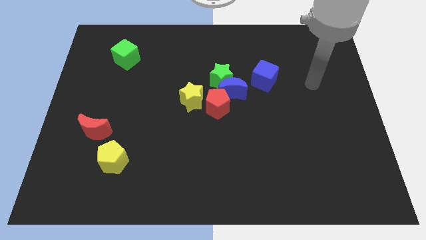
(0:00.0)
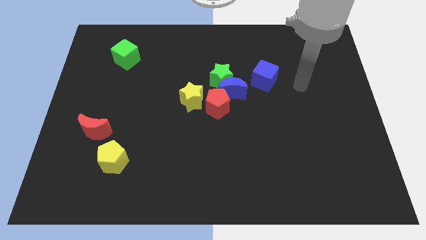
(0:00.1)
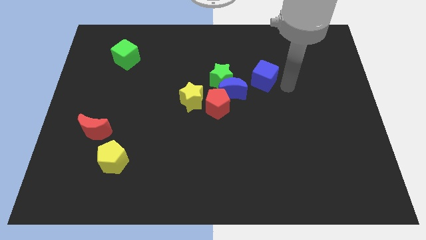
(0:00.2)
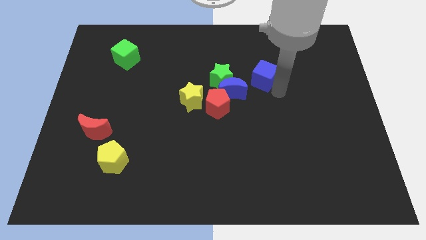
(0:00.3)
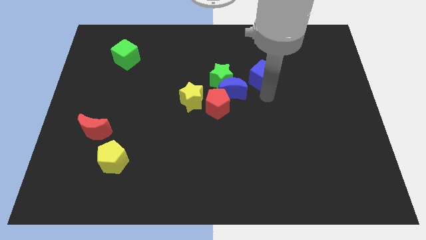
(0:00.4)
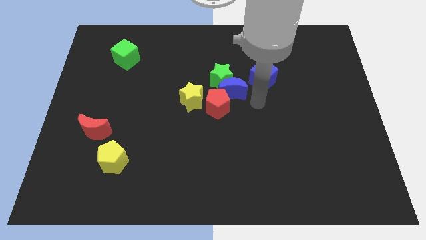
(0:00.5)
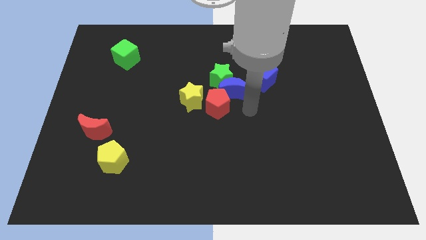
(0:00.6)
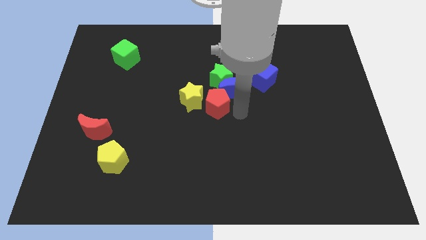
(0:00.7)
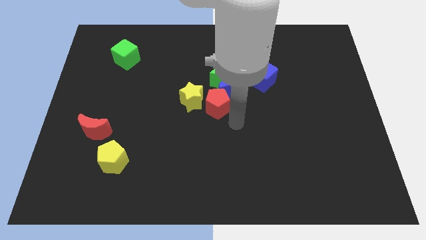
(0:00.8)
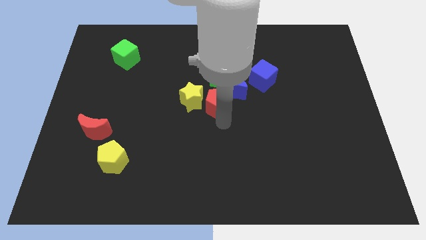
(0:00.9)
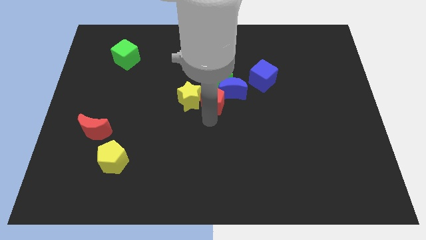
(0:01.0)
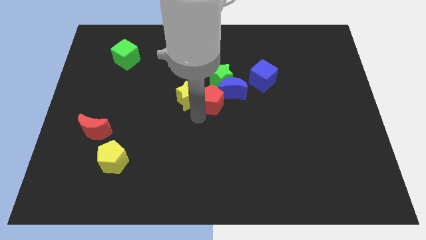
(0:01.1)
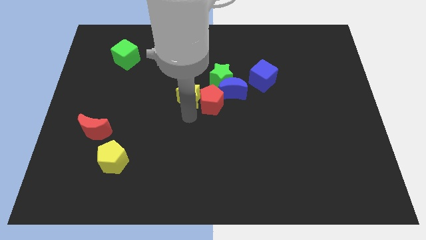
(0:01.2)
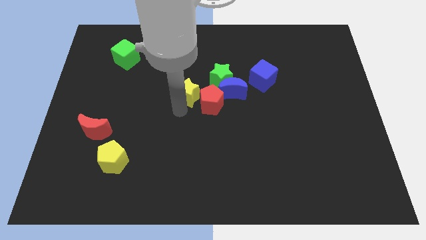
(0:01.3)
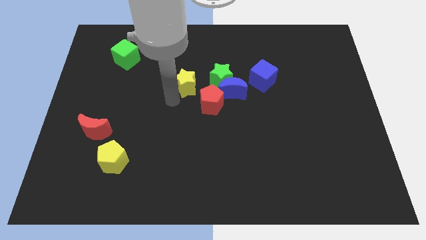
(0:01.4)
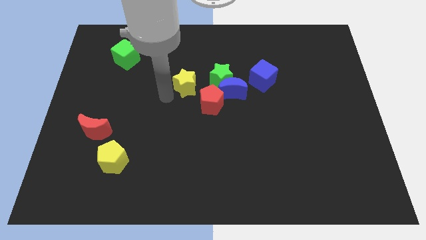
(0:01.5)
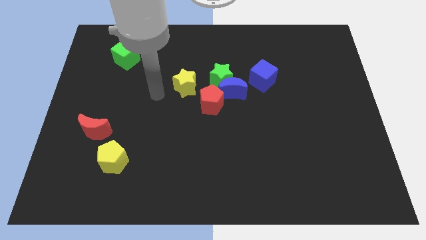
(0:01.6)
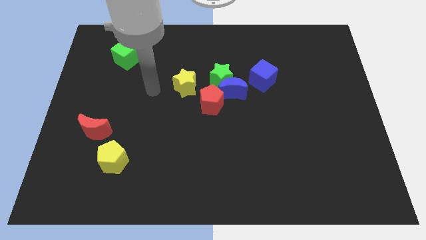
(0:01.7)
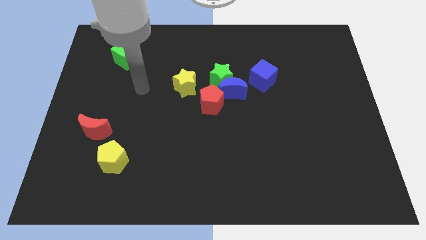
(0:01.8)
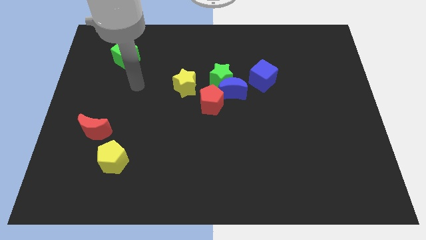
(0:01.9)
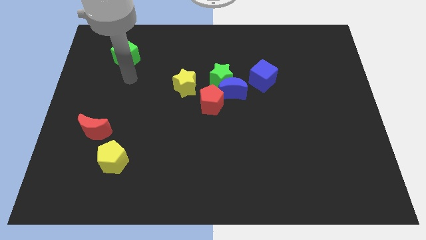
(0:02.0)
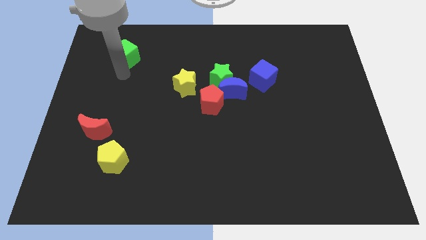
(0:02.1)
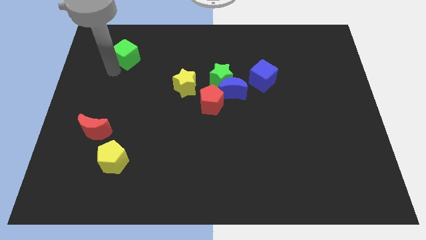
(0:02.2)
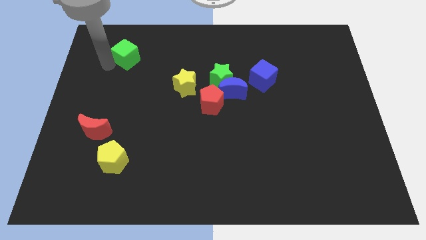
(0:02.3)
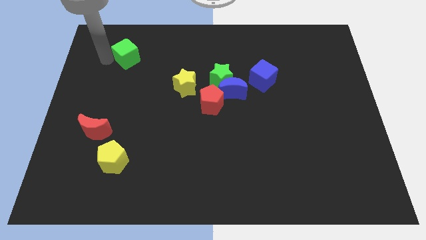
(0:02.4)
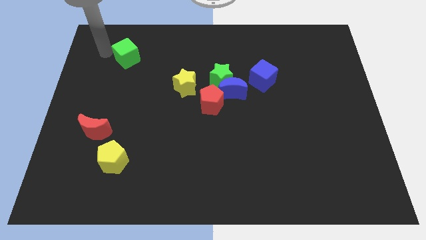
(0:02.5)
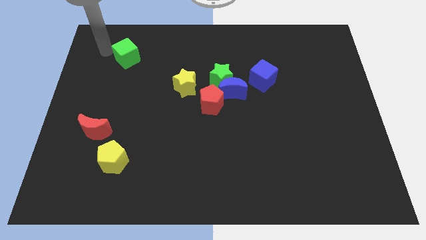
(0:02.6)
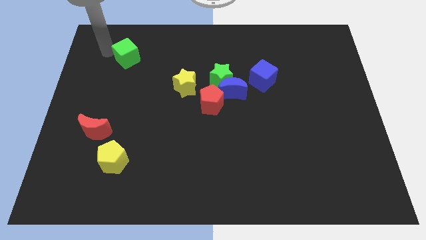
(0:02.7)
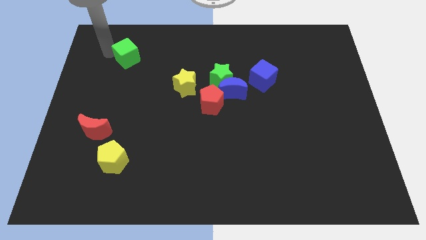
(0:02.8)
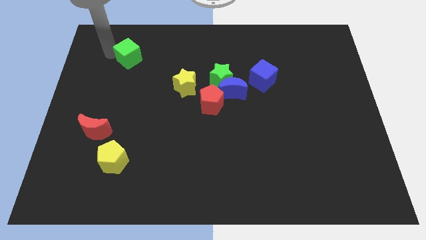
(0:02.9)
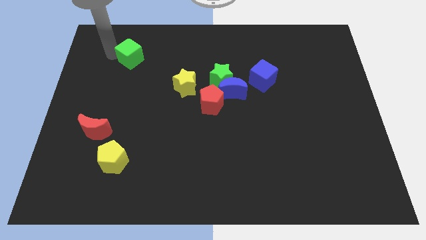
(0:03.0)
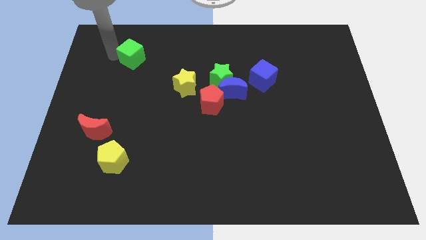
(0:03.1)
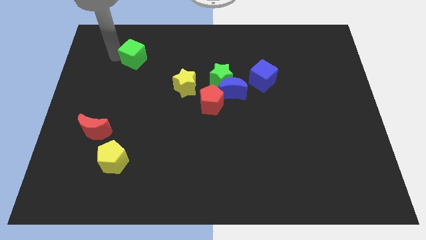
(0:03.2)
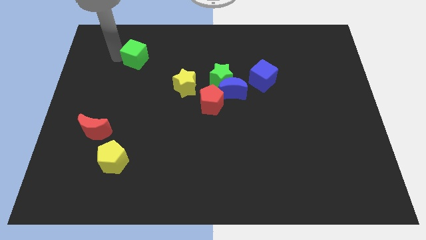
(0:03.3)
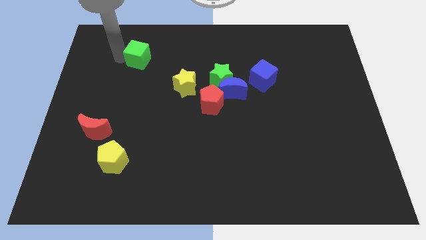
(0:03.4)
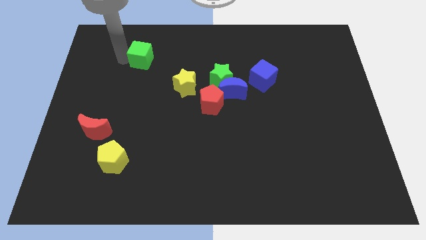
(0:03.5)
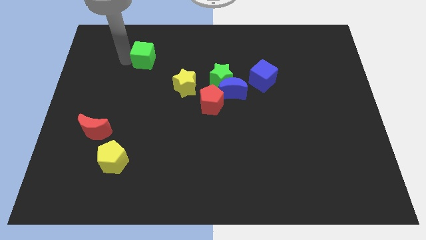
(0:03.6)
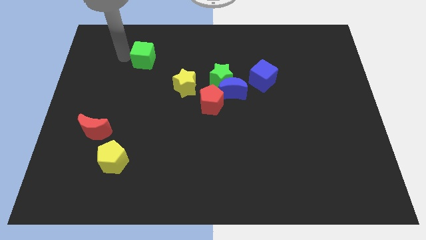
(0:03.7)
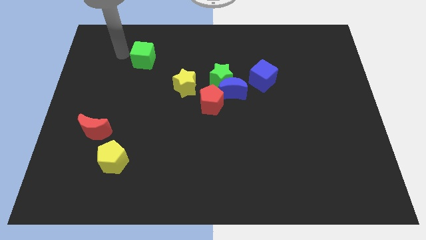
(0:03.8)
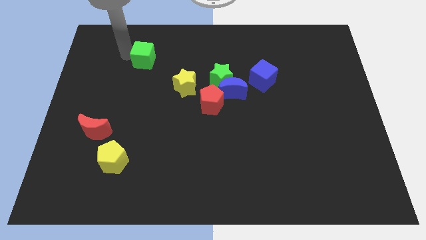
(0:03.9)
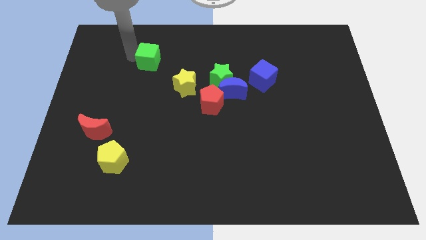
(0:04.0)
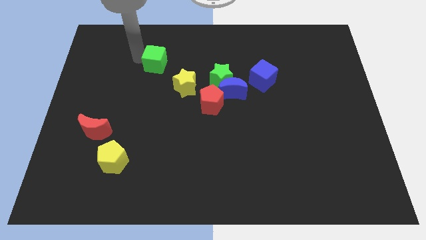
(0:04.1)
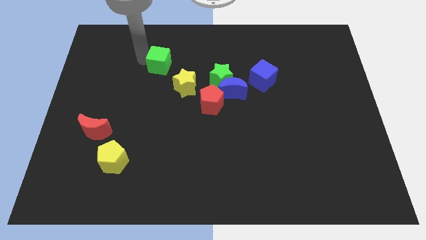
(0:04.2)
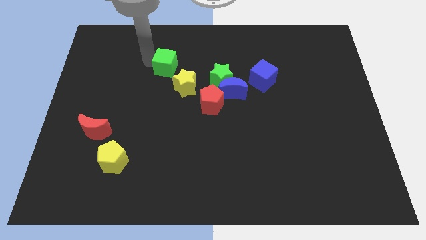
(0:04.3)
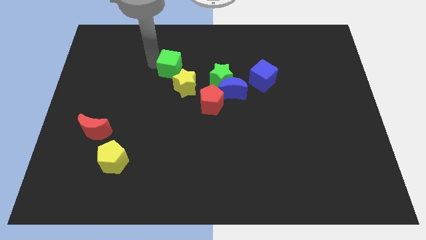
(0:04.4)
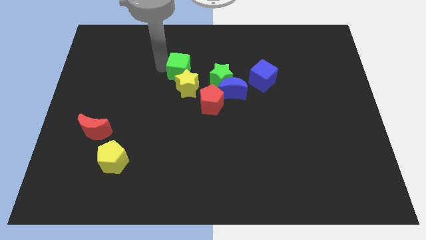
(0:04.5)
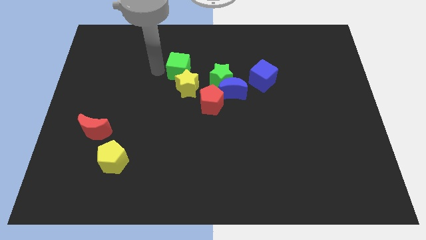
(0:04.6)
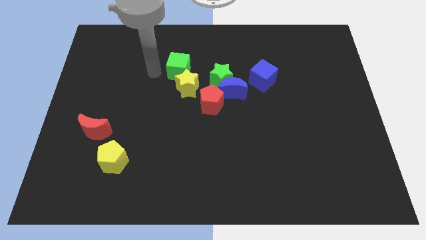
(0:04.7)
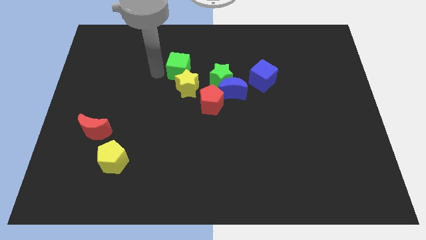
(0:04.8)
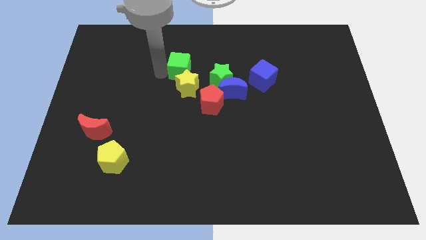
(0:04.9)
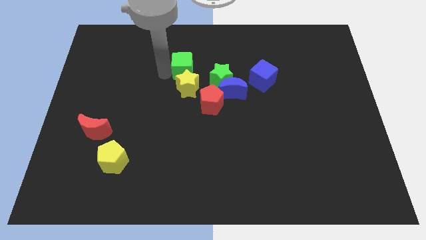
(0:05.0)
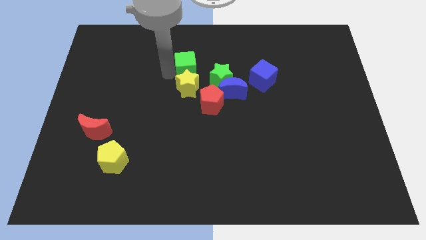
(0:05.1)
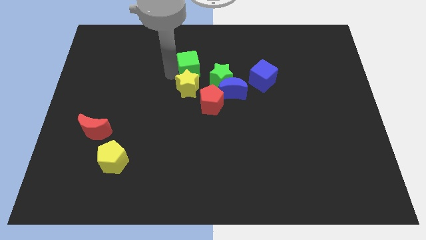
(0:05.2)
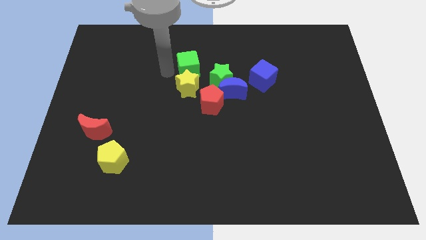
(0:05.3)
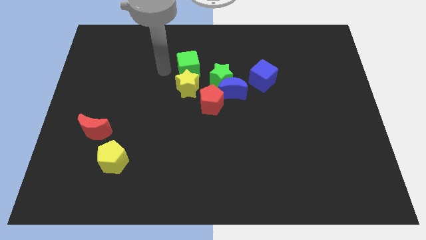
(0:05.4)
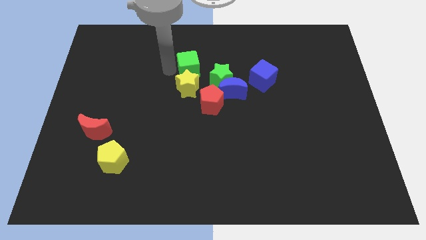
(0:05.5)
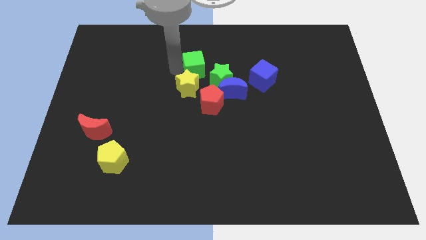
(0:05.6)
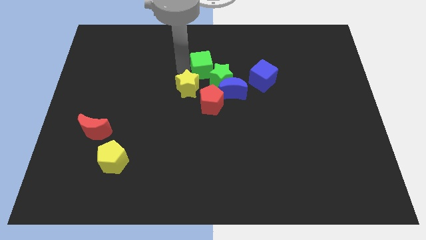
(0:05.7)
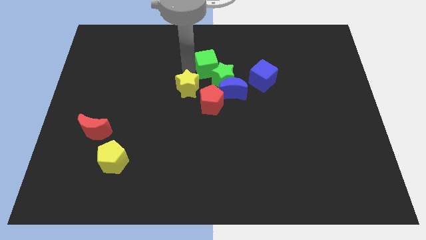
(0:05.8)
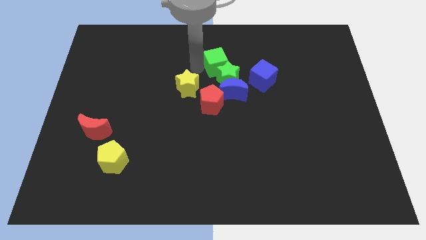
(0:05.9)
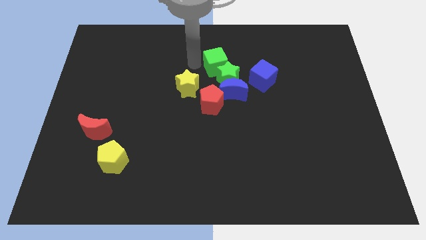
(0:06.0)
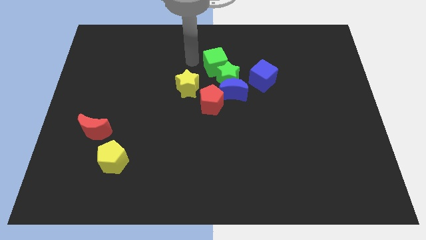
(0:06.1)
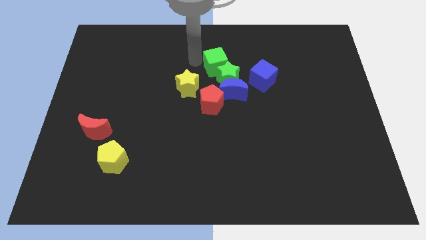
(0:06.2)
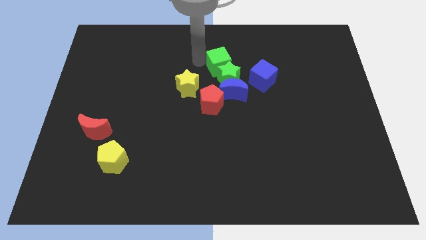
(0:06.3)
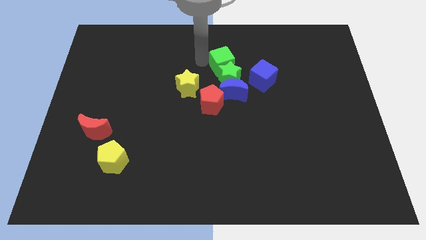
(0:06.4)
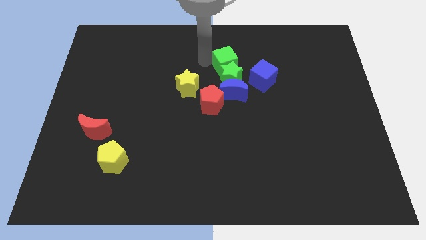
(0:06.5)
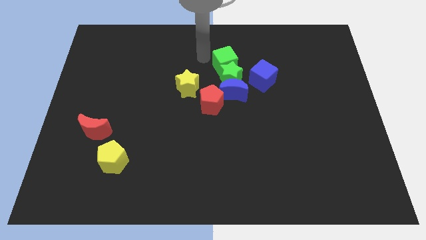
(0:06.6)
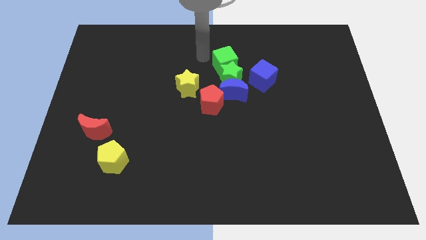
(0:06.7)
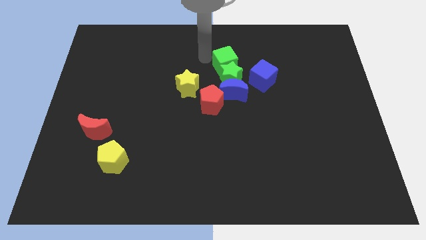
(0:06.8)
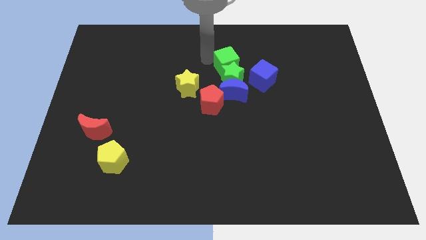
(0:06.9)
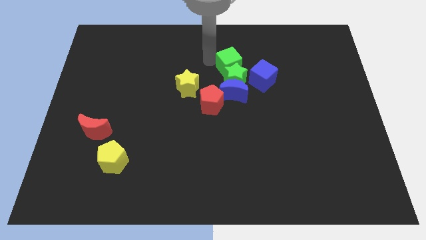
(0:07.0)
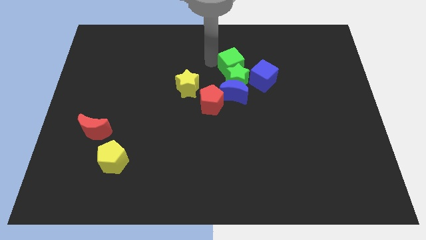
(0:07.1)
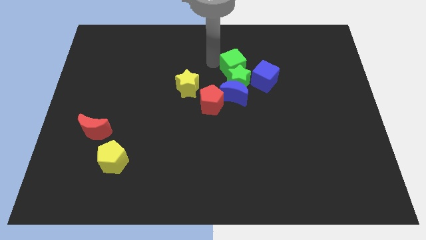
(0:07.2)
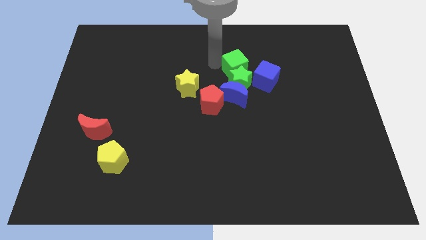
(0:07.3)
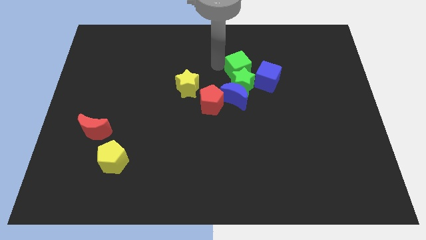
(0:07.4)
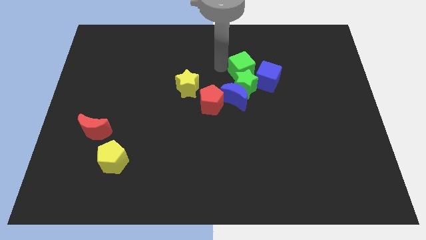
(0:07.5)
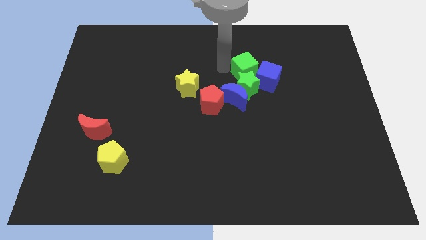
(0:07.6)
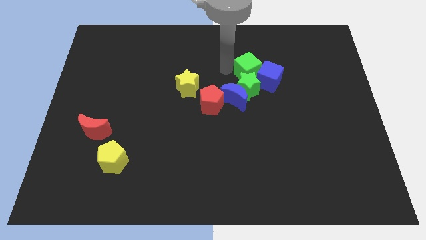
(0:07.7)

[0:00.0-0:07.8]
put the green cube to the blue cube

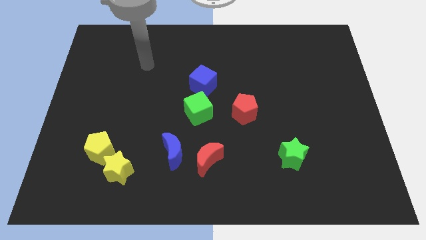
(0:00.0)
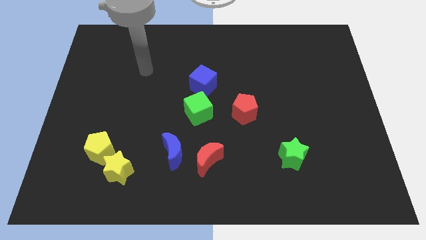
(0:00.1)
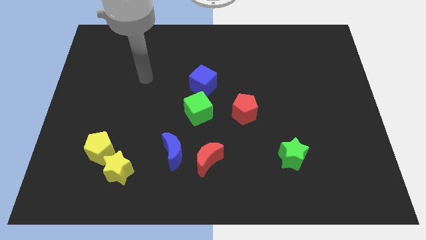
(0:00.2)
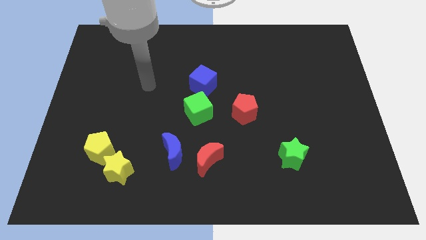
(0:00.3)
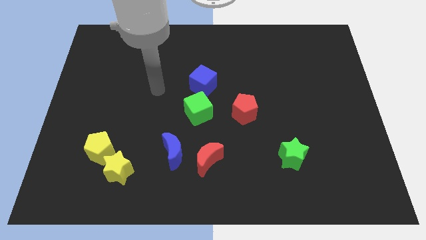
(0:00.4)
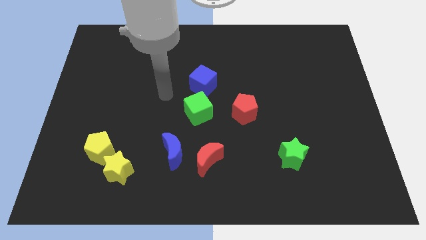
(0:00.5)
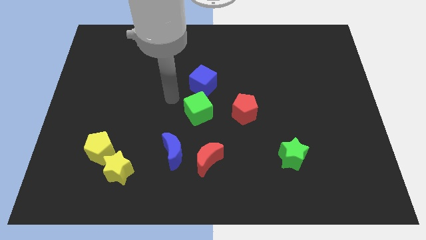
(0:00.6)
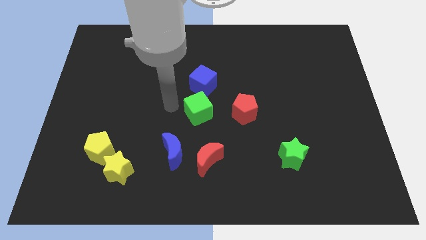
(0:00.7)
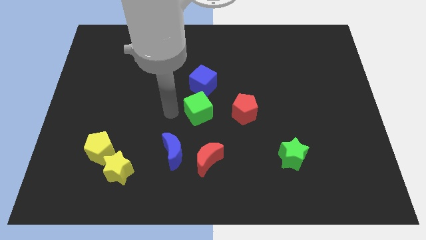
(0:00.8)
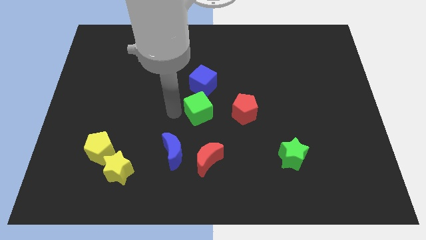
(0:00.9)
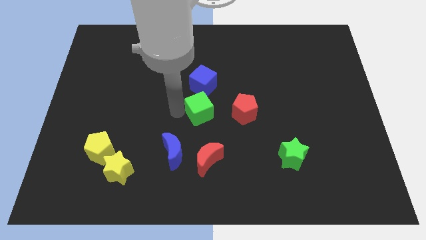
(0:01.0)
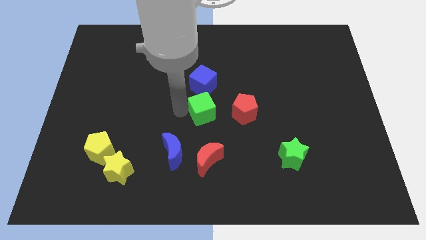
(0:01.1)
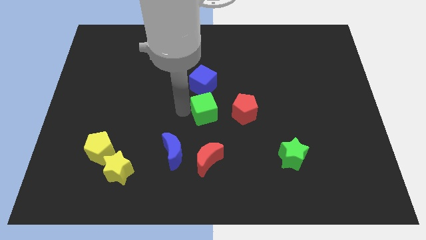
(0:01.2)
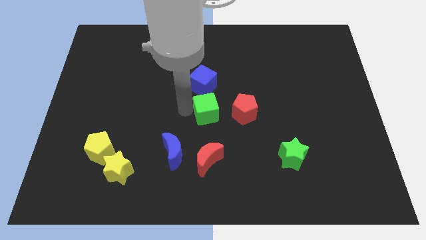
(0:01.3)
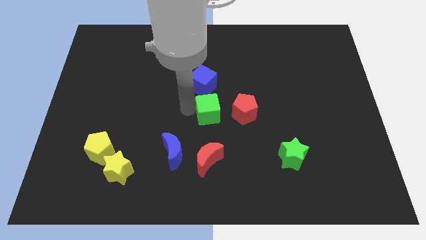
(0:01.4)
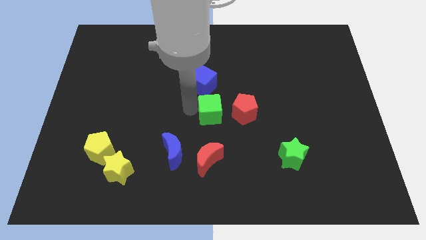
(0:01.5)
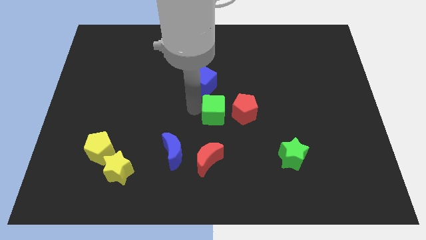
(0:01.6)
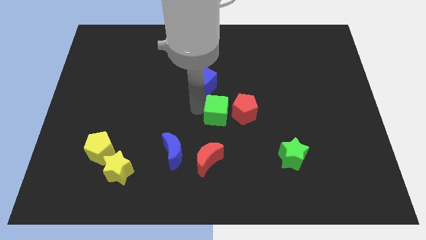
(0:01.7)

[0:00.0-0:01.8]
push the green cube towards the red pentagon
